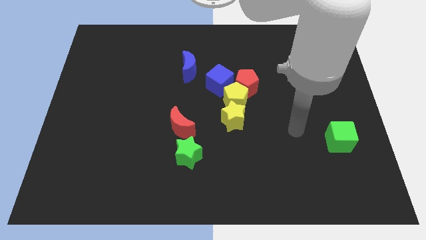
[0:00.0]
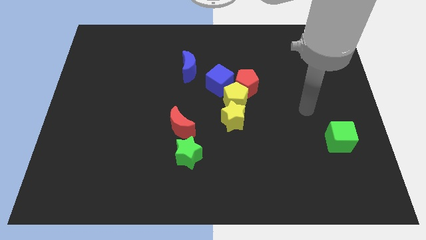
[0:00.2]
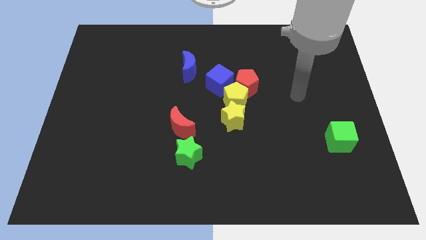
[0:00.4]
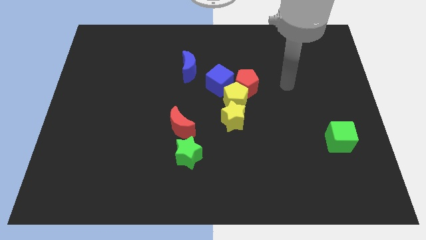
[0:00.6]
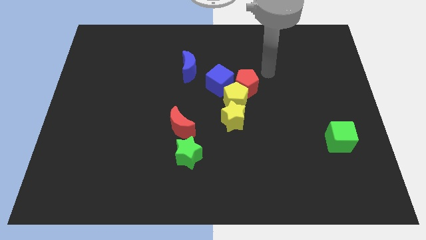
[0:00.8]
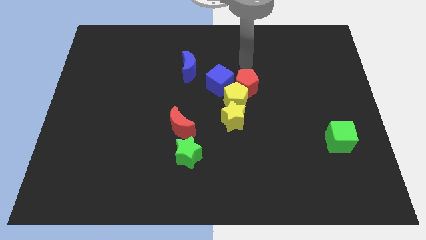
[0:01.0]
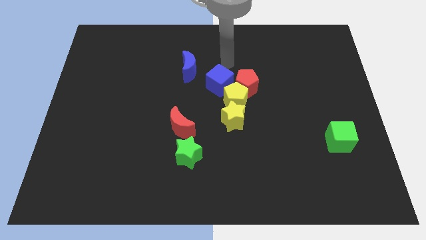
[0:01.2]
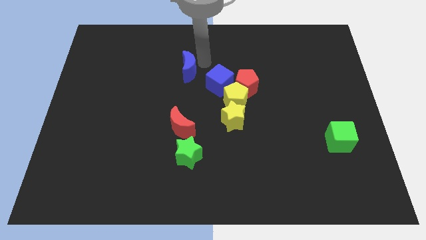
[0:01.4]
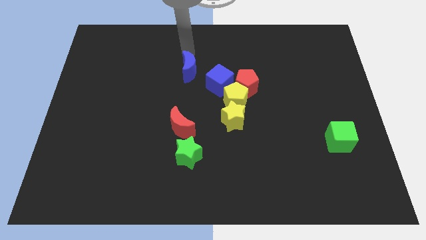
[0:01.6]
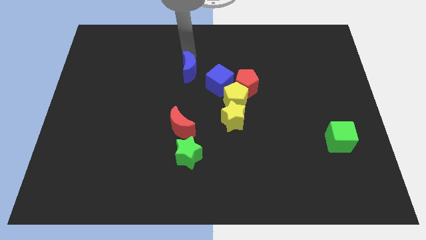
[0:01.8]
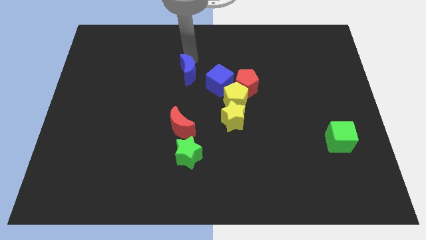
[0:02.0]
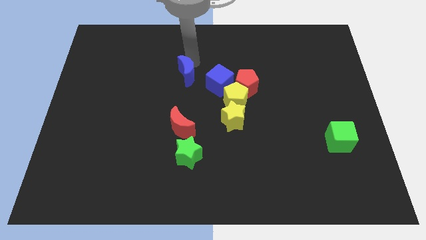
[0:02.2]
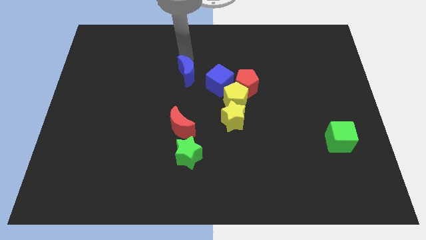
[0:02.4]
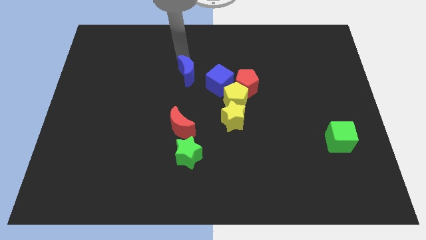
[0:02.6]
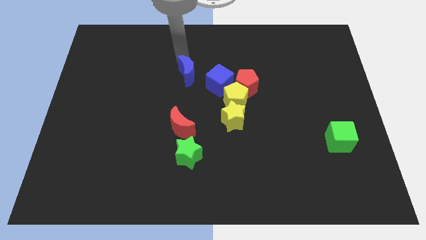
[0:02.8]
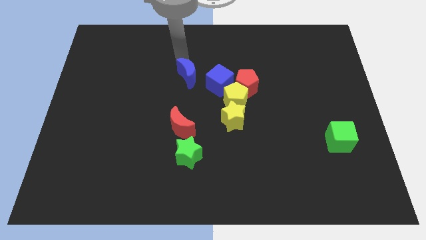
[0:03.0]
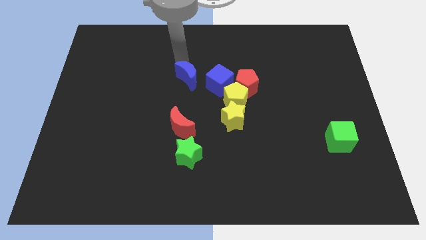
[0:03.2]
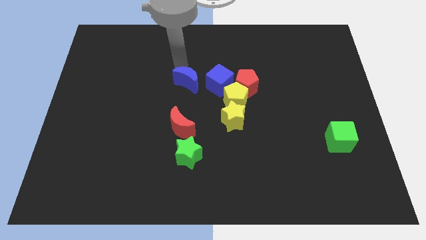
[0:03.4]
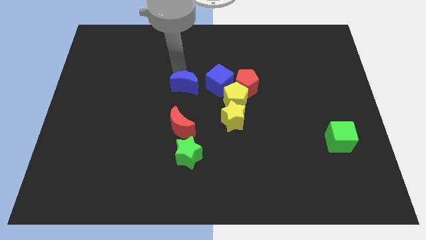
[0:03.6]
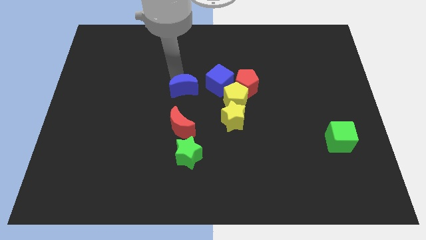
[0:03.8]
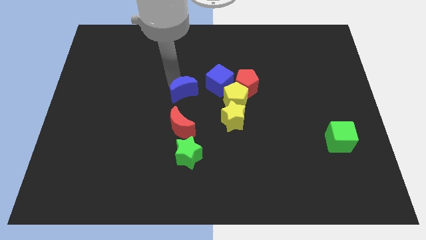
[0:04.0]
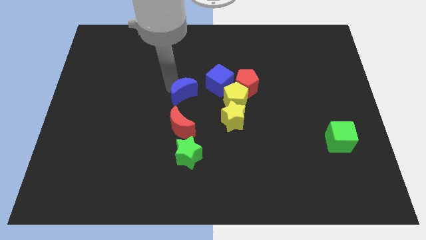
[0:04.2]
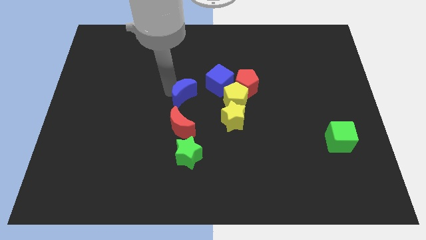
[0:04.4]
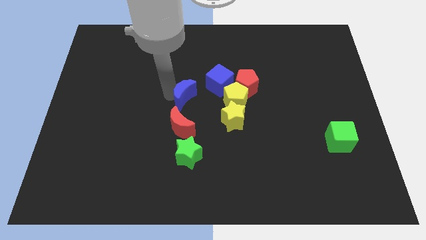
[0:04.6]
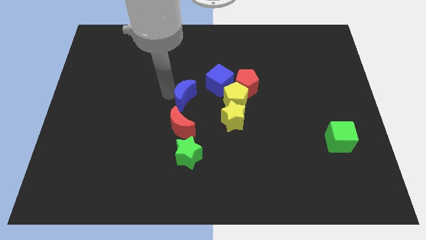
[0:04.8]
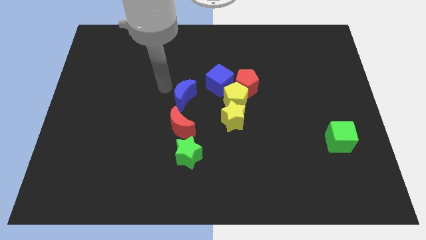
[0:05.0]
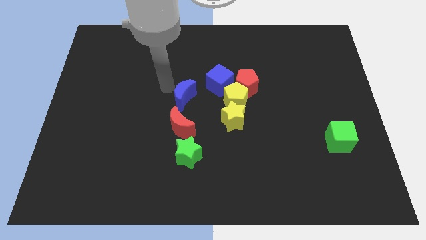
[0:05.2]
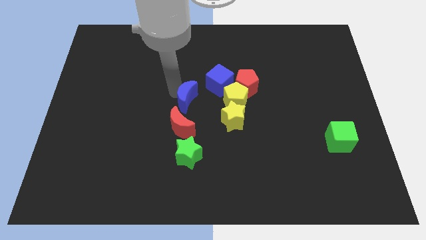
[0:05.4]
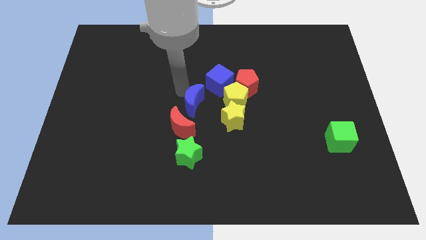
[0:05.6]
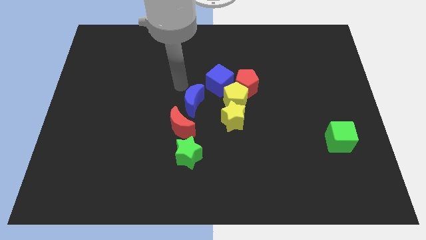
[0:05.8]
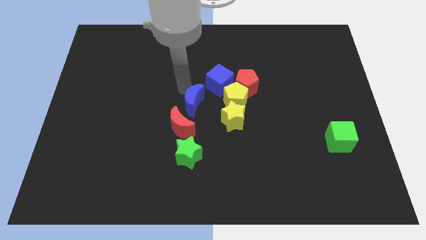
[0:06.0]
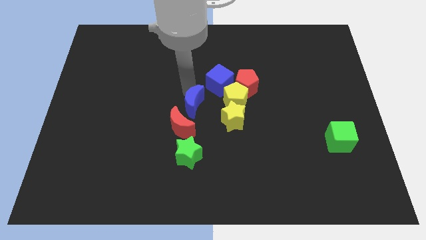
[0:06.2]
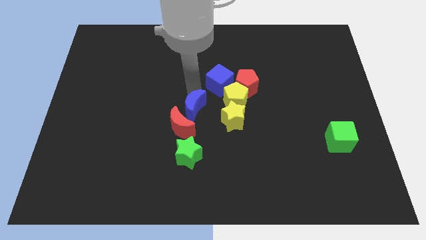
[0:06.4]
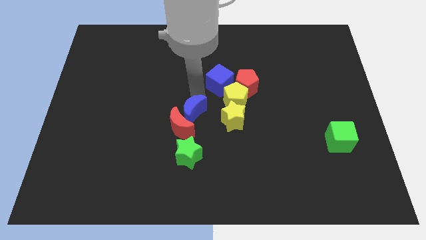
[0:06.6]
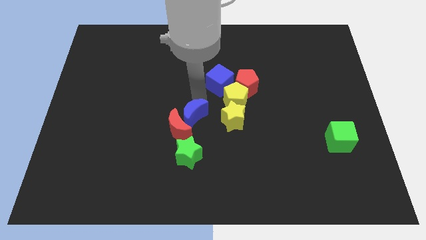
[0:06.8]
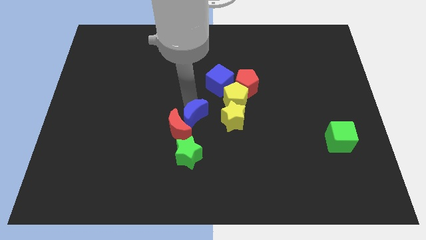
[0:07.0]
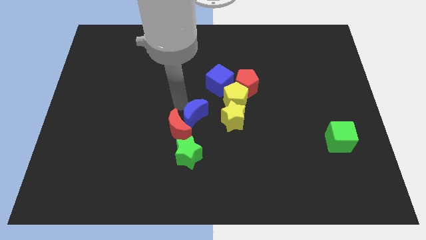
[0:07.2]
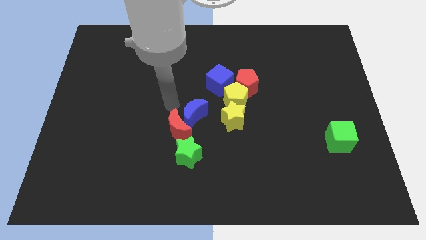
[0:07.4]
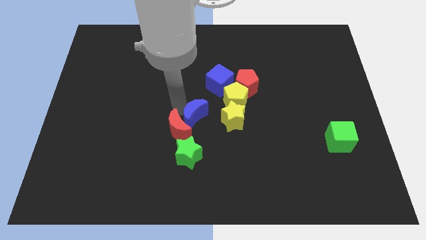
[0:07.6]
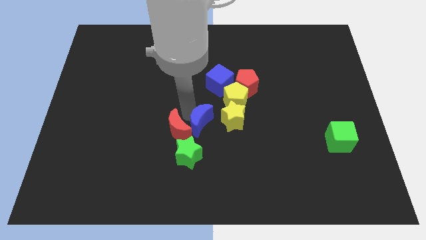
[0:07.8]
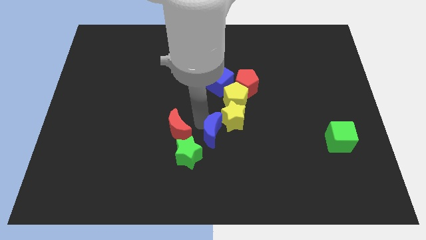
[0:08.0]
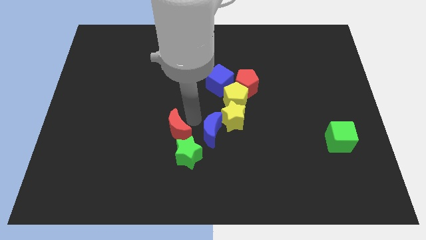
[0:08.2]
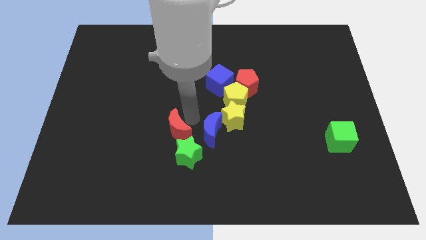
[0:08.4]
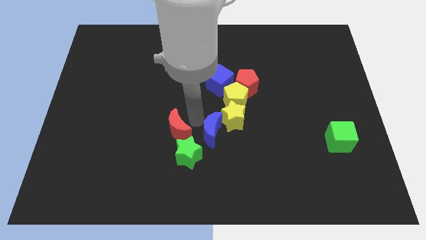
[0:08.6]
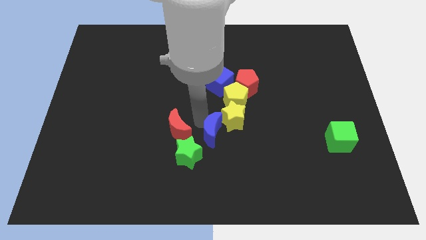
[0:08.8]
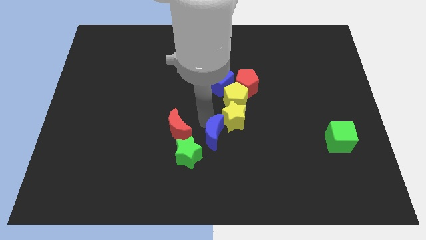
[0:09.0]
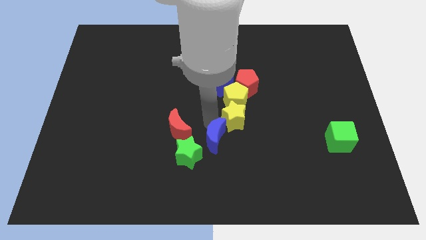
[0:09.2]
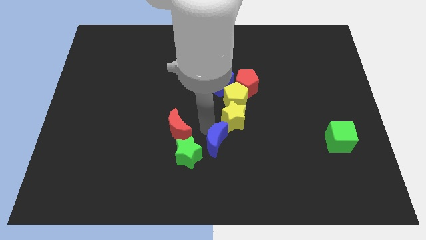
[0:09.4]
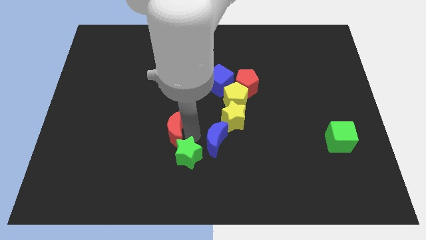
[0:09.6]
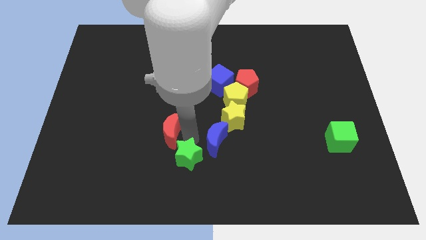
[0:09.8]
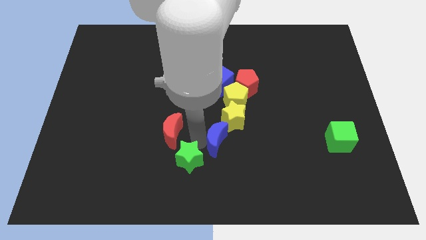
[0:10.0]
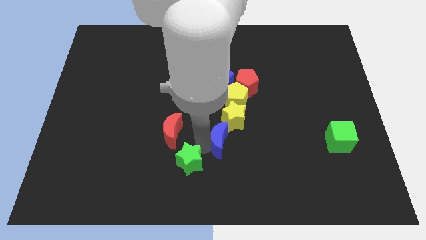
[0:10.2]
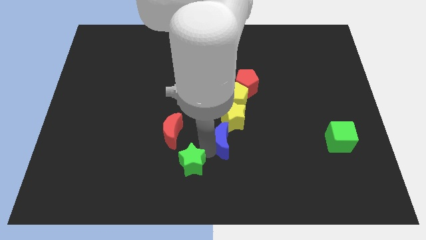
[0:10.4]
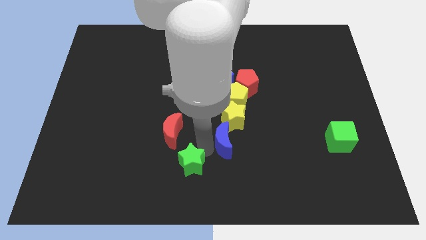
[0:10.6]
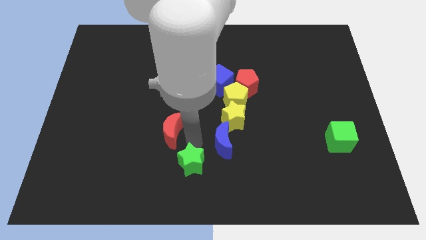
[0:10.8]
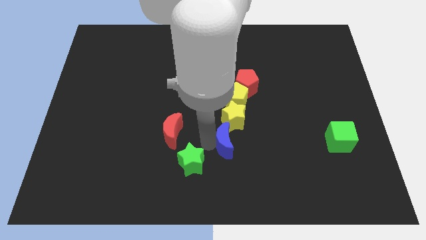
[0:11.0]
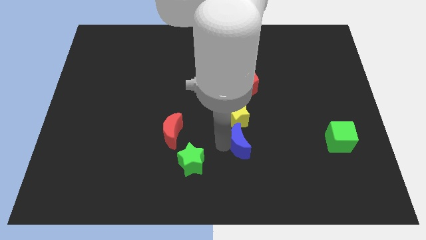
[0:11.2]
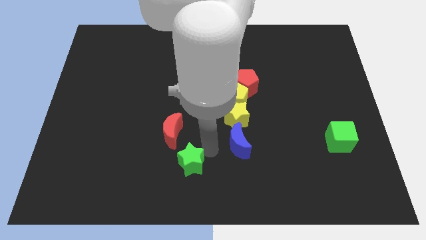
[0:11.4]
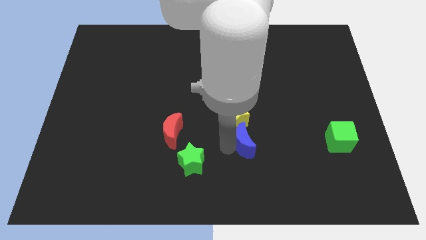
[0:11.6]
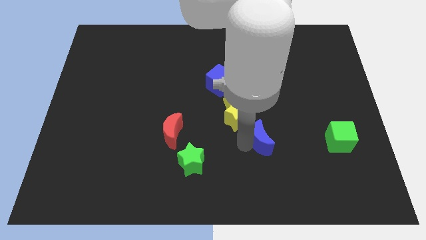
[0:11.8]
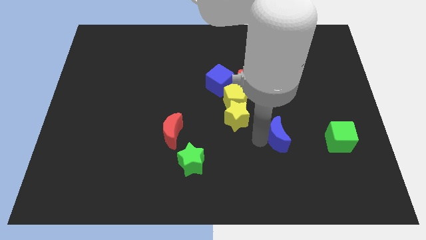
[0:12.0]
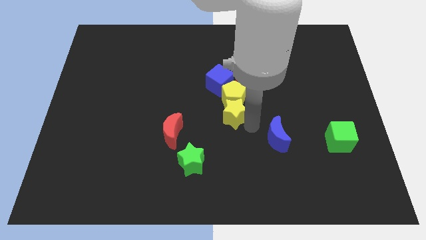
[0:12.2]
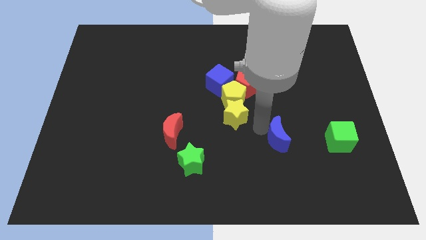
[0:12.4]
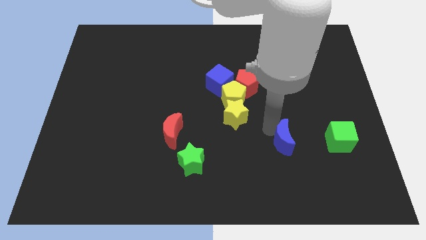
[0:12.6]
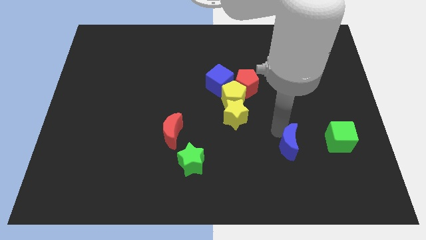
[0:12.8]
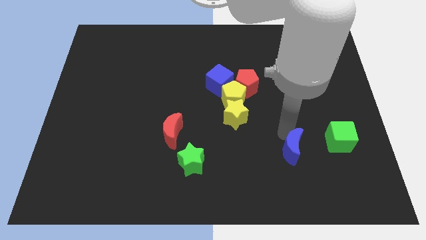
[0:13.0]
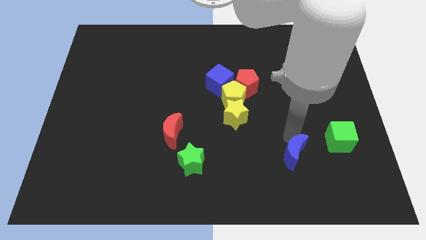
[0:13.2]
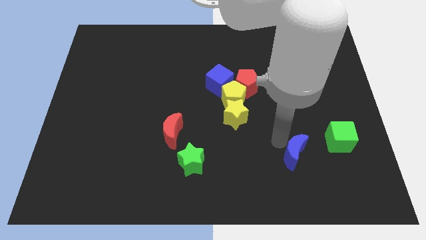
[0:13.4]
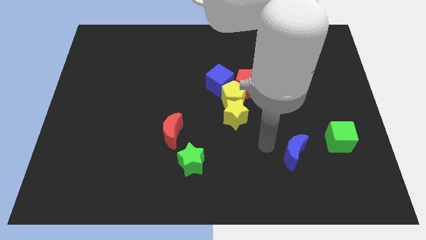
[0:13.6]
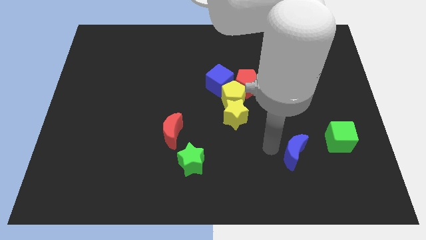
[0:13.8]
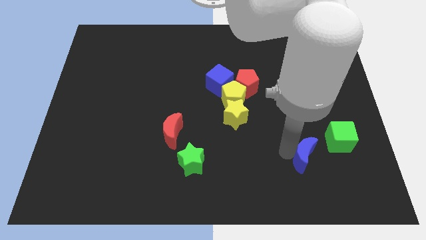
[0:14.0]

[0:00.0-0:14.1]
move the blue moon to the bottom left side of the green cube

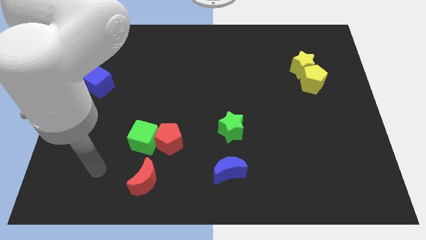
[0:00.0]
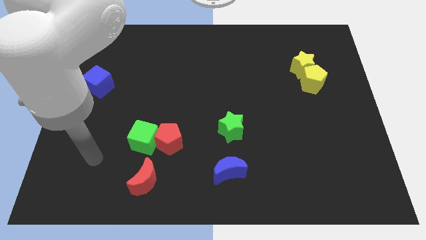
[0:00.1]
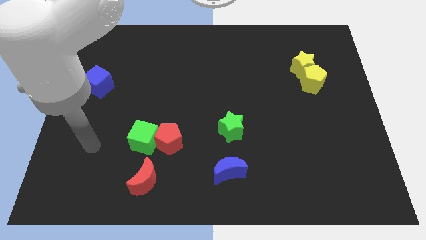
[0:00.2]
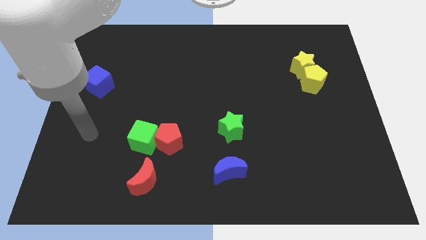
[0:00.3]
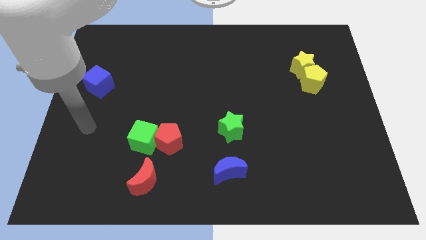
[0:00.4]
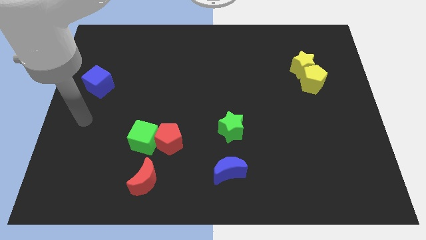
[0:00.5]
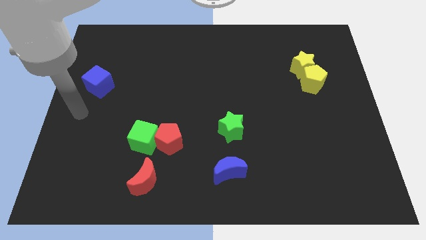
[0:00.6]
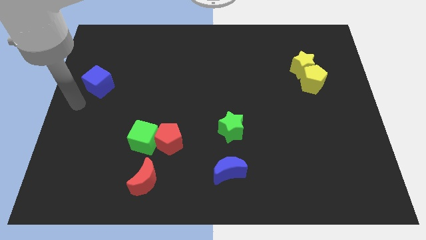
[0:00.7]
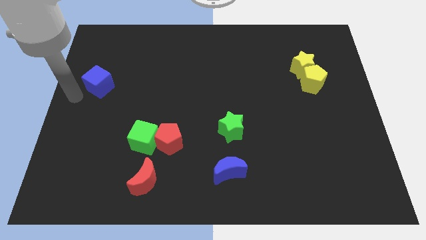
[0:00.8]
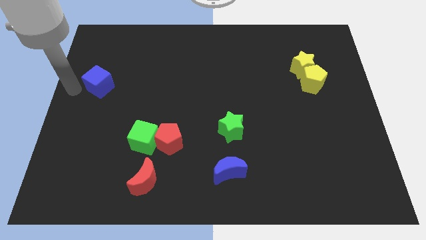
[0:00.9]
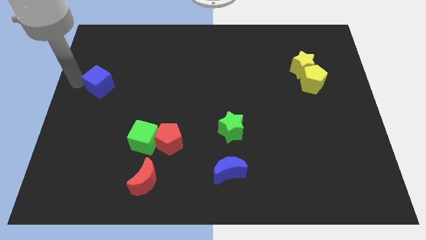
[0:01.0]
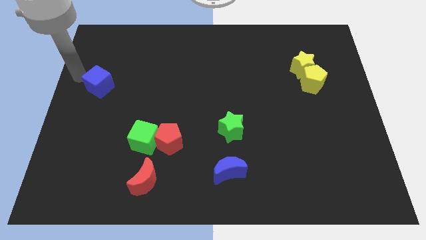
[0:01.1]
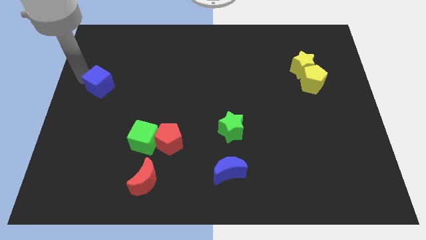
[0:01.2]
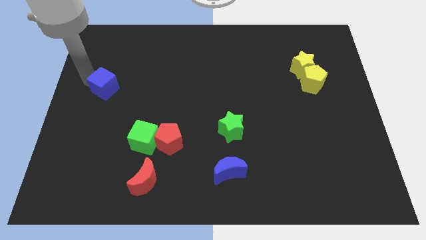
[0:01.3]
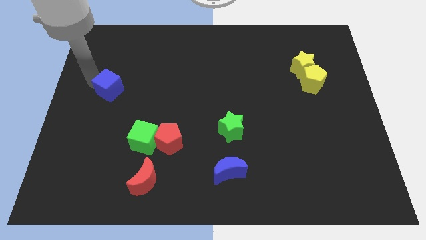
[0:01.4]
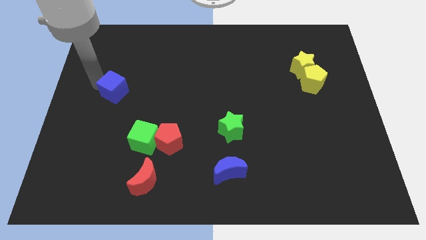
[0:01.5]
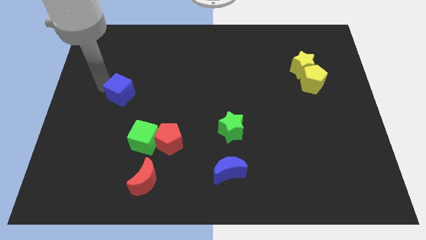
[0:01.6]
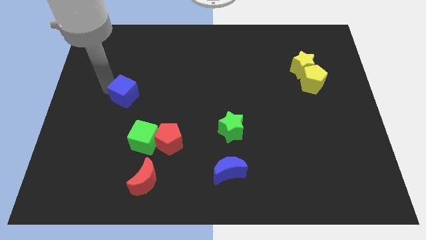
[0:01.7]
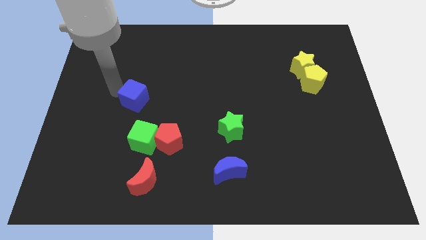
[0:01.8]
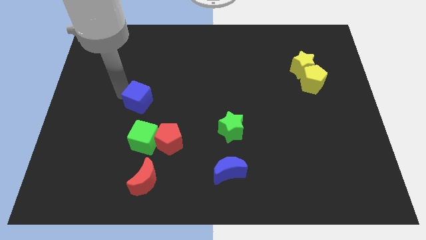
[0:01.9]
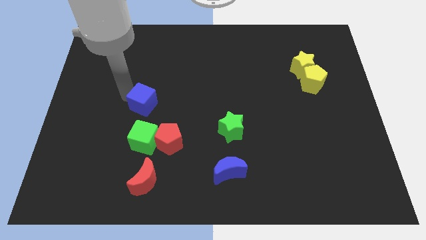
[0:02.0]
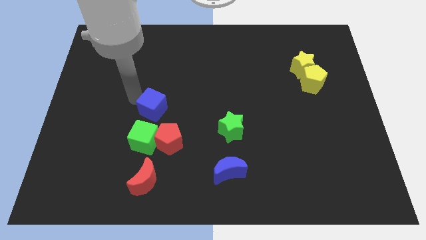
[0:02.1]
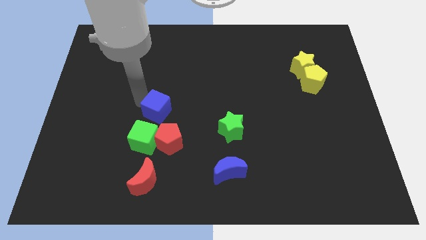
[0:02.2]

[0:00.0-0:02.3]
slide the blue cube to the top right side of the green cube
